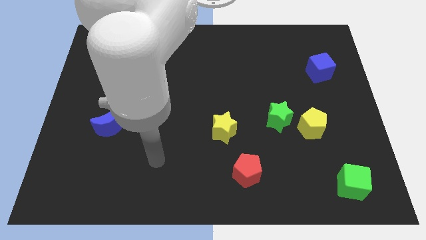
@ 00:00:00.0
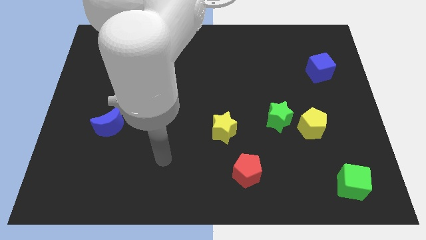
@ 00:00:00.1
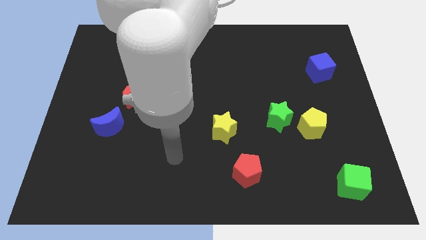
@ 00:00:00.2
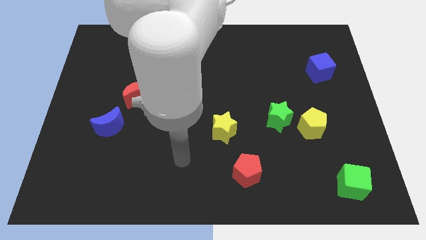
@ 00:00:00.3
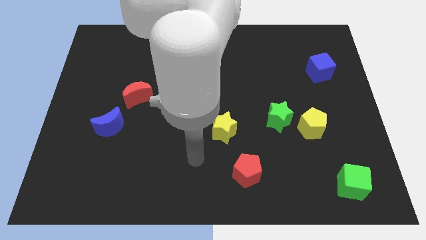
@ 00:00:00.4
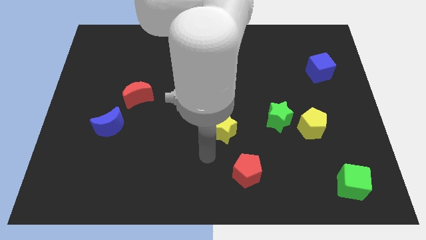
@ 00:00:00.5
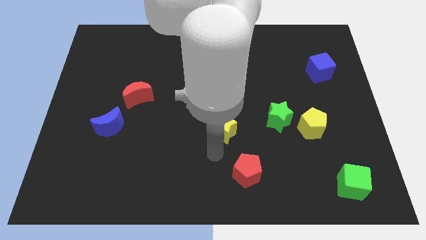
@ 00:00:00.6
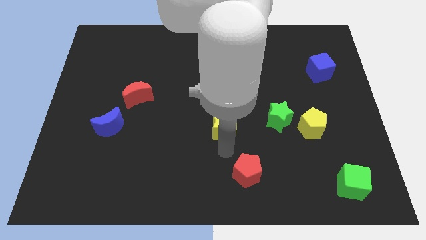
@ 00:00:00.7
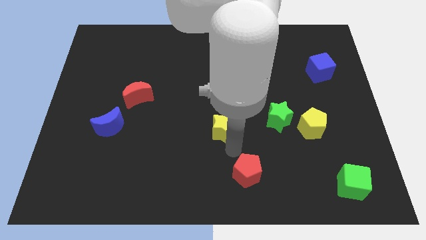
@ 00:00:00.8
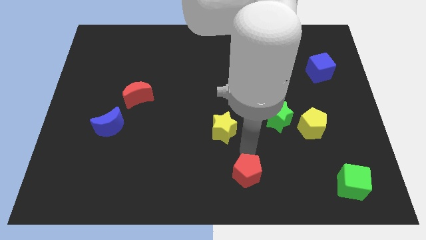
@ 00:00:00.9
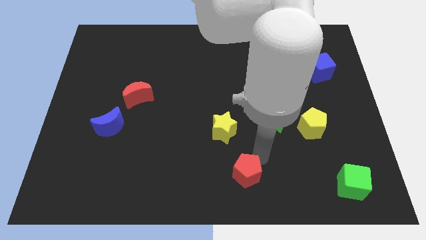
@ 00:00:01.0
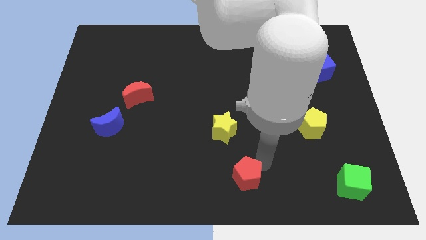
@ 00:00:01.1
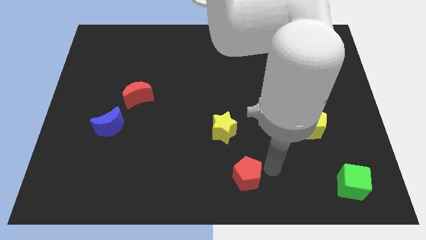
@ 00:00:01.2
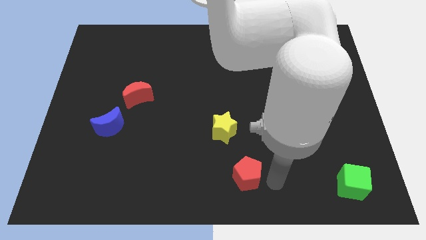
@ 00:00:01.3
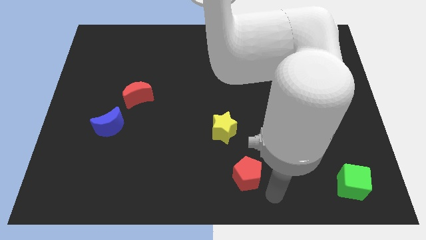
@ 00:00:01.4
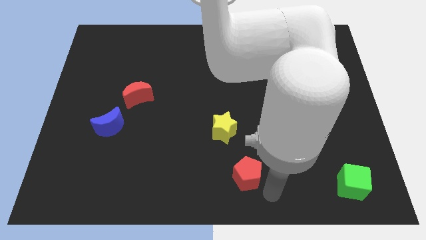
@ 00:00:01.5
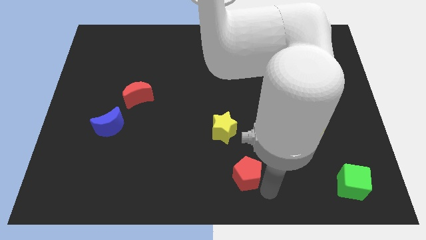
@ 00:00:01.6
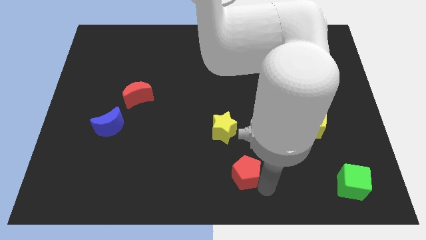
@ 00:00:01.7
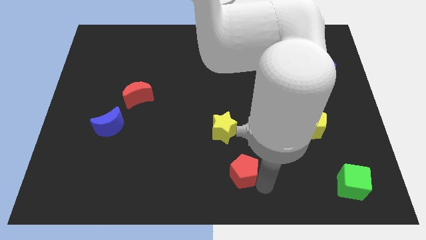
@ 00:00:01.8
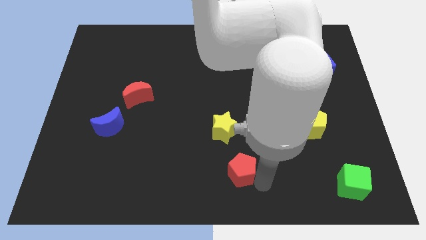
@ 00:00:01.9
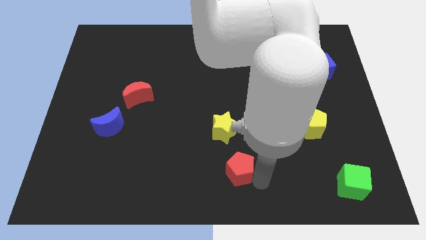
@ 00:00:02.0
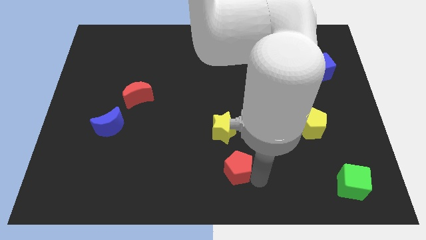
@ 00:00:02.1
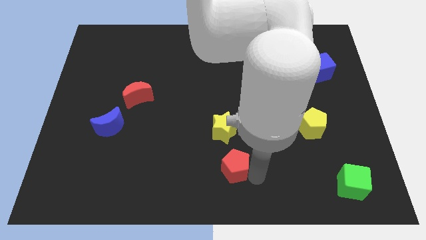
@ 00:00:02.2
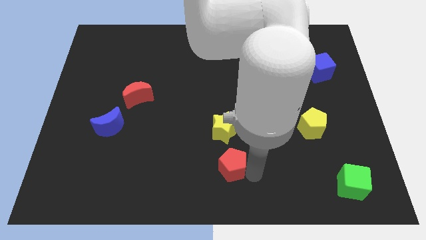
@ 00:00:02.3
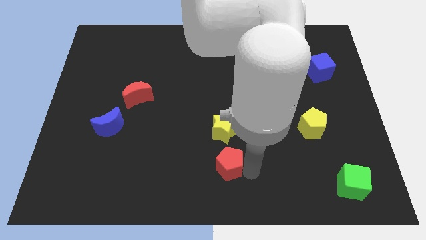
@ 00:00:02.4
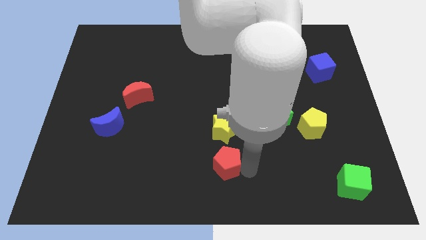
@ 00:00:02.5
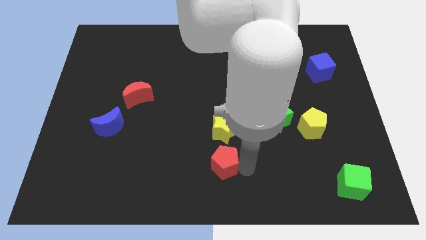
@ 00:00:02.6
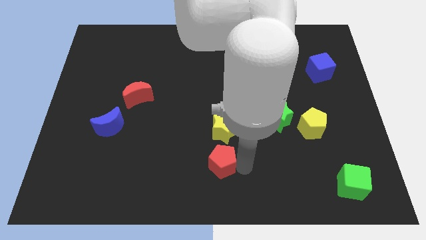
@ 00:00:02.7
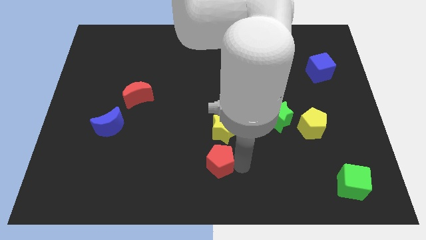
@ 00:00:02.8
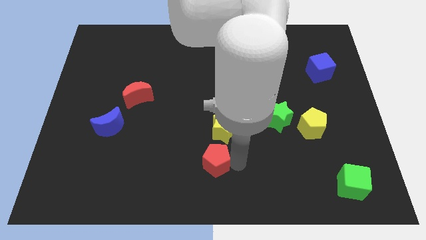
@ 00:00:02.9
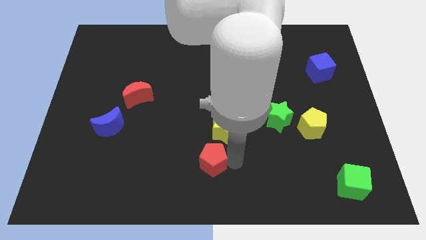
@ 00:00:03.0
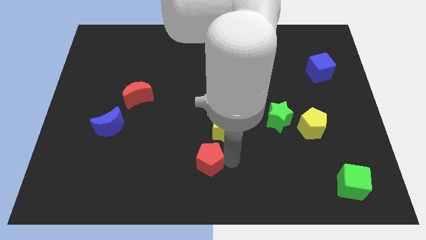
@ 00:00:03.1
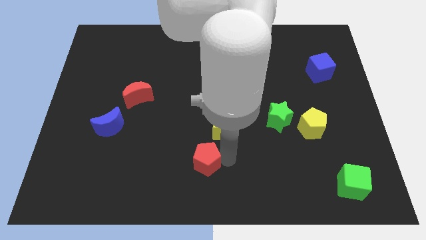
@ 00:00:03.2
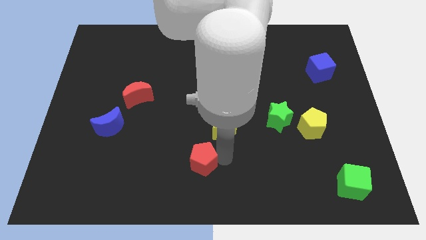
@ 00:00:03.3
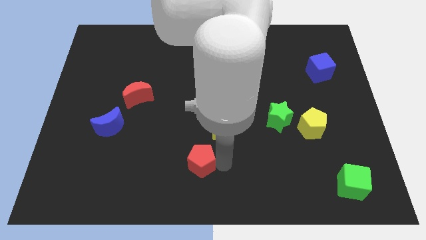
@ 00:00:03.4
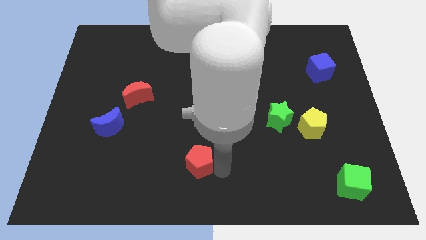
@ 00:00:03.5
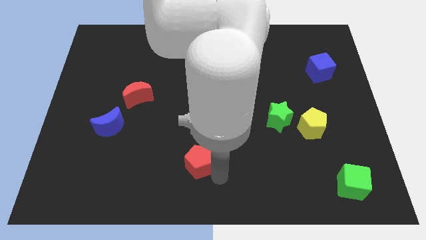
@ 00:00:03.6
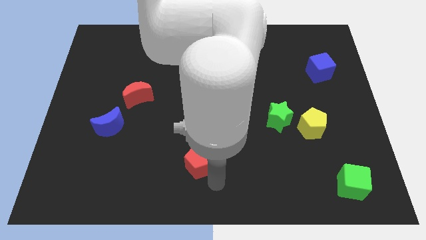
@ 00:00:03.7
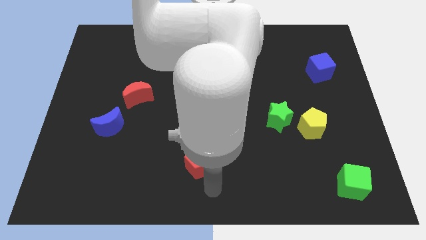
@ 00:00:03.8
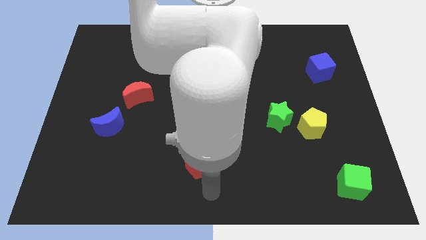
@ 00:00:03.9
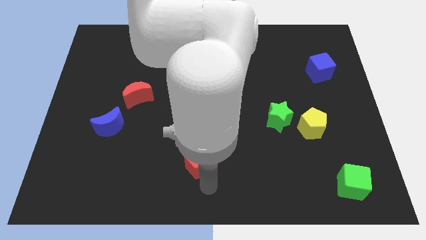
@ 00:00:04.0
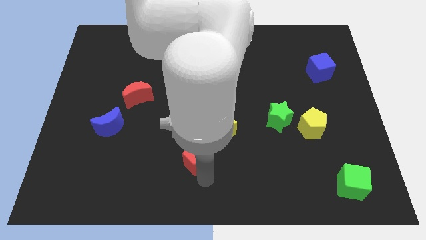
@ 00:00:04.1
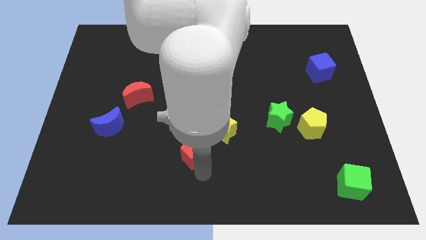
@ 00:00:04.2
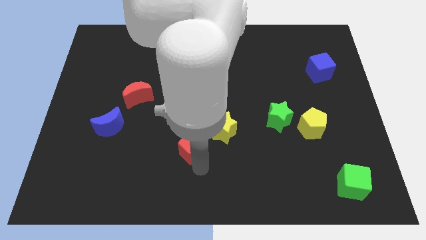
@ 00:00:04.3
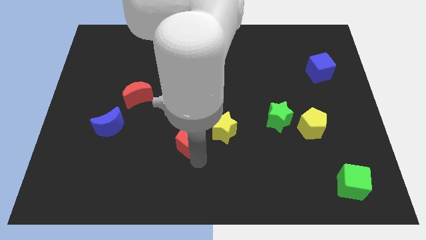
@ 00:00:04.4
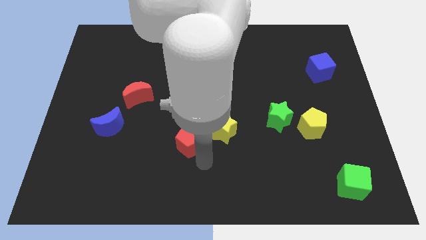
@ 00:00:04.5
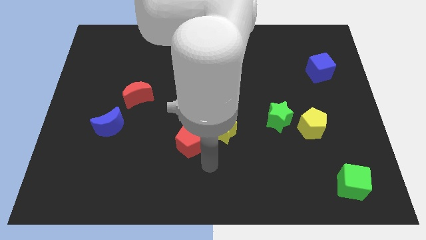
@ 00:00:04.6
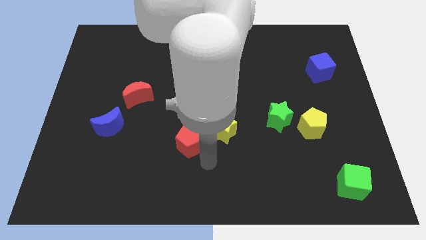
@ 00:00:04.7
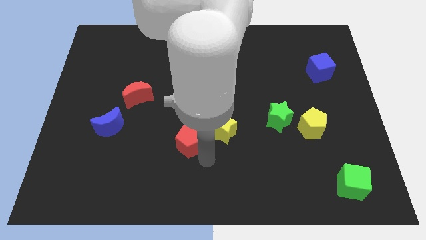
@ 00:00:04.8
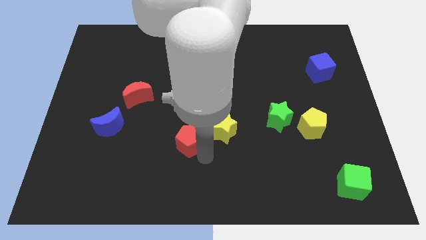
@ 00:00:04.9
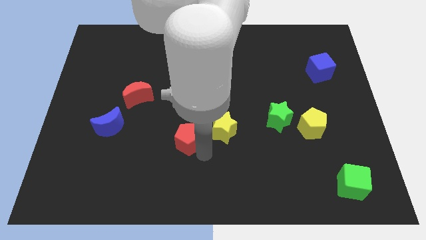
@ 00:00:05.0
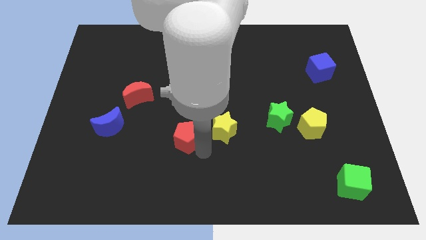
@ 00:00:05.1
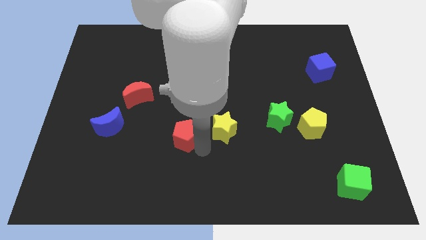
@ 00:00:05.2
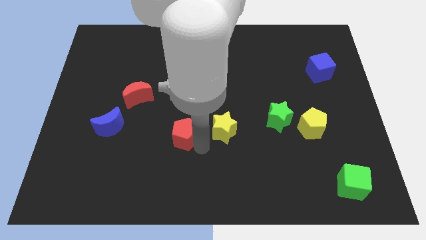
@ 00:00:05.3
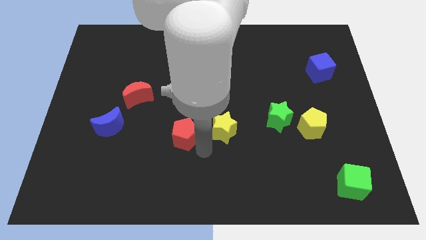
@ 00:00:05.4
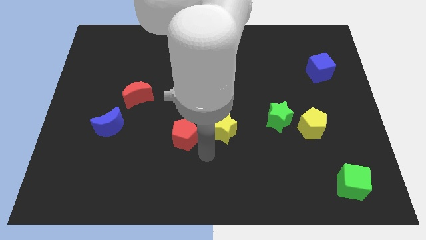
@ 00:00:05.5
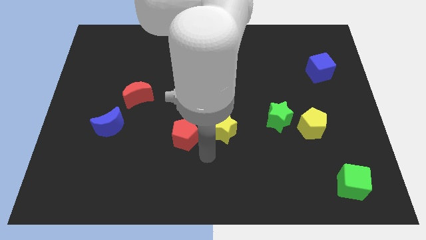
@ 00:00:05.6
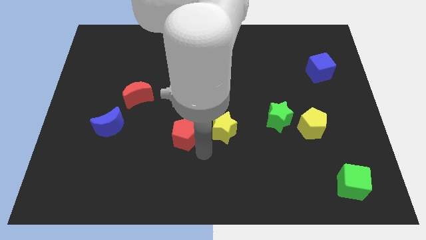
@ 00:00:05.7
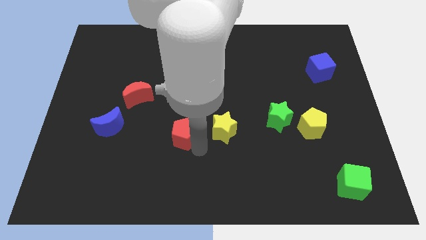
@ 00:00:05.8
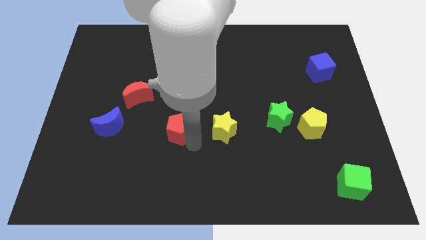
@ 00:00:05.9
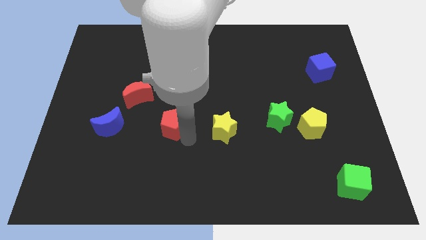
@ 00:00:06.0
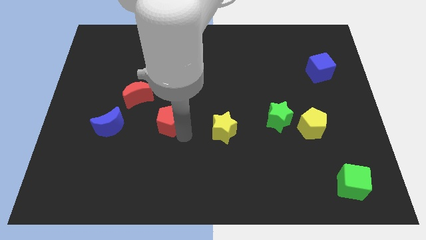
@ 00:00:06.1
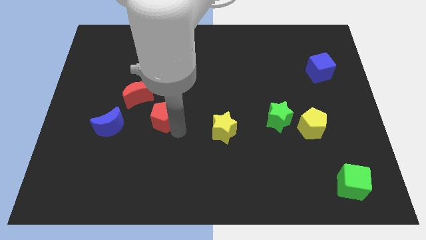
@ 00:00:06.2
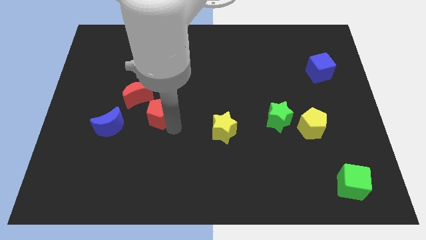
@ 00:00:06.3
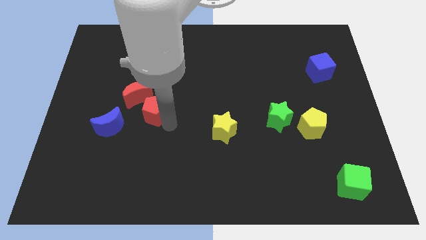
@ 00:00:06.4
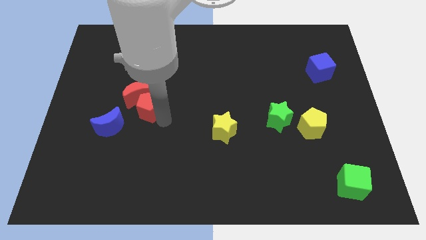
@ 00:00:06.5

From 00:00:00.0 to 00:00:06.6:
push the red pentagon next to the red moon

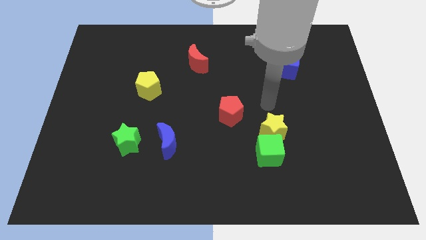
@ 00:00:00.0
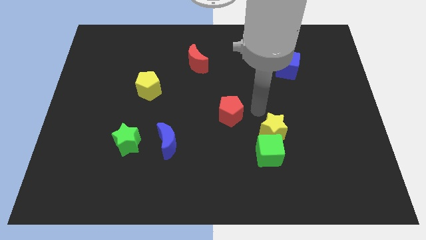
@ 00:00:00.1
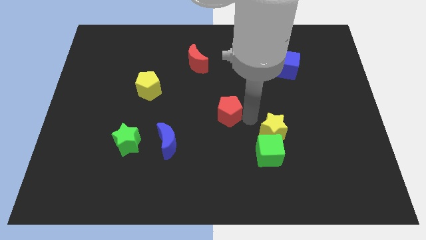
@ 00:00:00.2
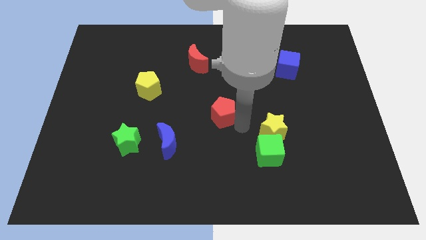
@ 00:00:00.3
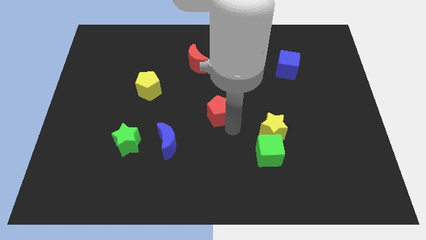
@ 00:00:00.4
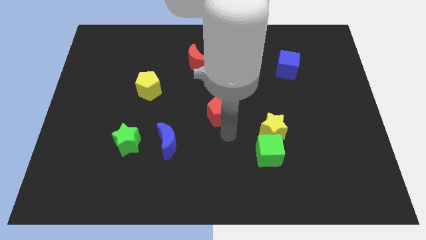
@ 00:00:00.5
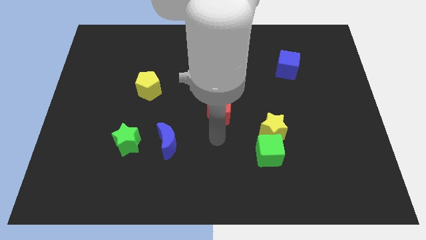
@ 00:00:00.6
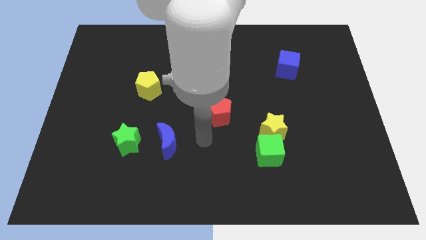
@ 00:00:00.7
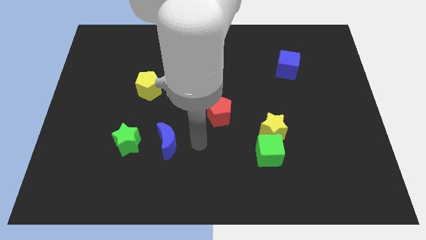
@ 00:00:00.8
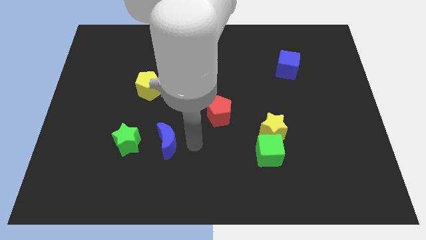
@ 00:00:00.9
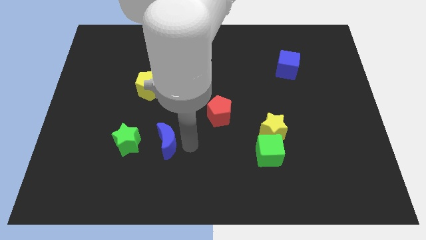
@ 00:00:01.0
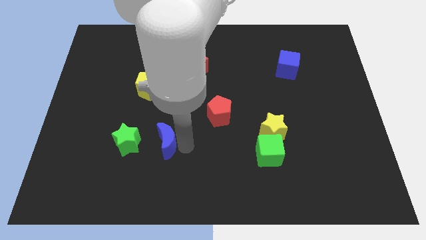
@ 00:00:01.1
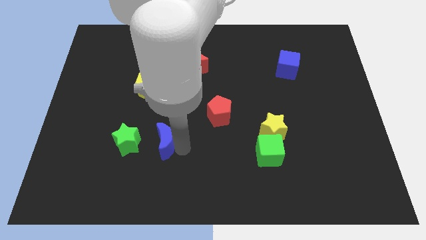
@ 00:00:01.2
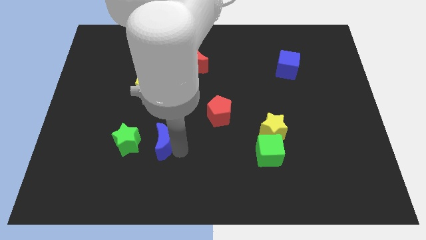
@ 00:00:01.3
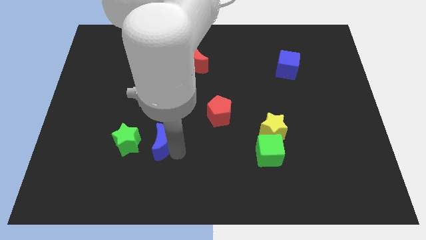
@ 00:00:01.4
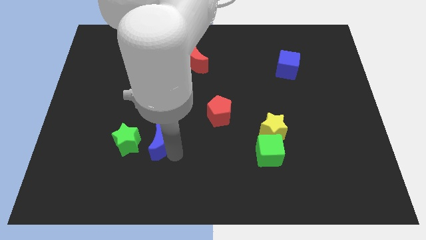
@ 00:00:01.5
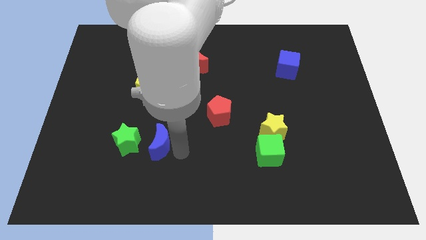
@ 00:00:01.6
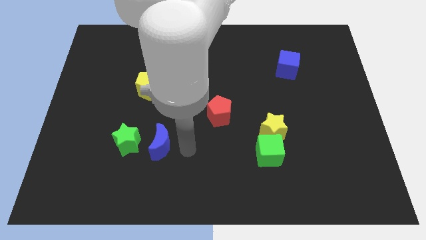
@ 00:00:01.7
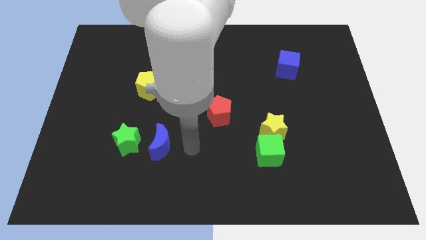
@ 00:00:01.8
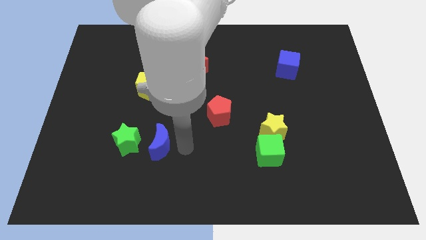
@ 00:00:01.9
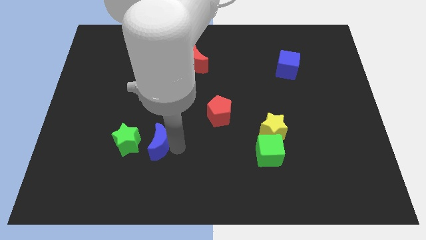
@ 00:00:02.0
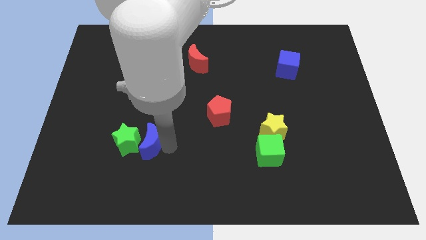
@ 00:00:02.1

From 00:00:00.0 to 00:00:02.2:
push the blue moon towards the green star
